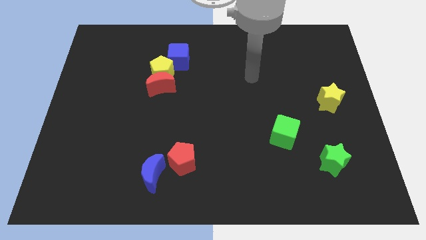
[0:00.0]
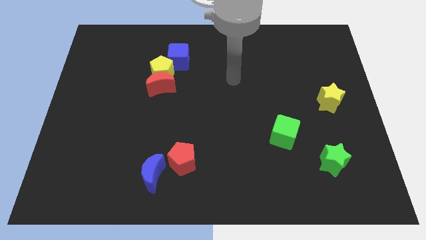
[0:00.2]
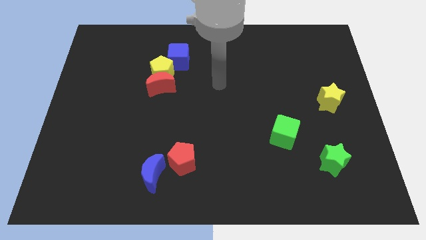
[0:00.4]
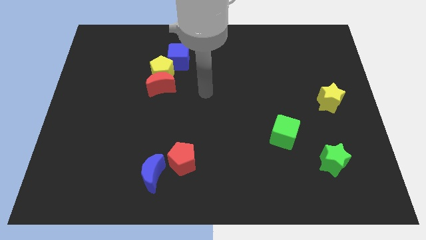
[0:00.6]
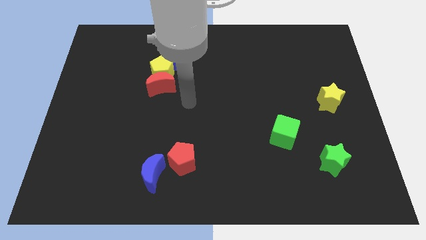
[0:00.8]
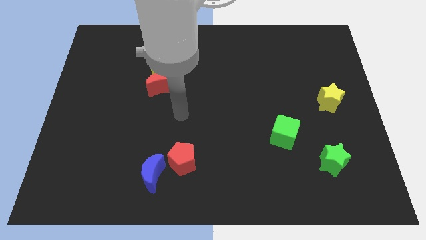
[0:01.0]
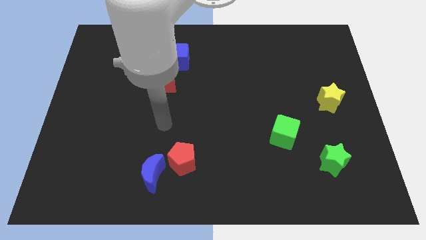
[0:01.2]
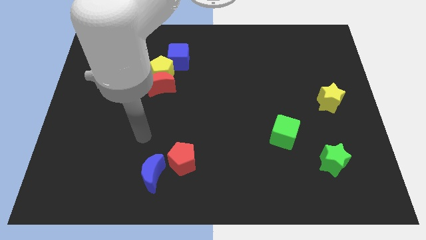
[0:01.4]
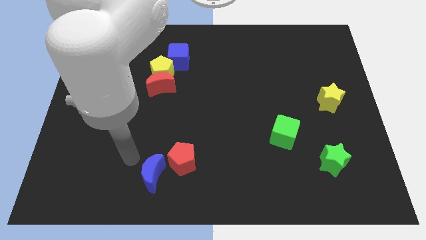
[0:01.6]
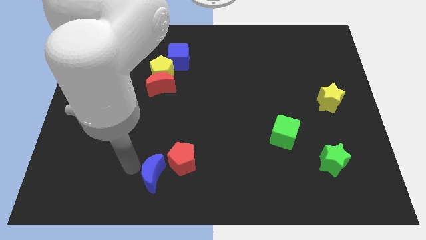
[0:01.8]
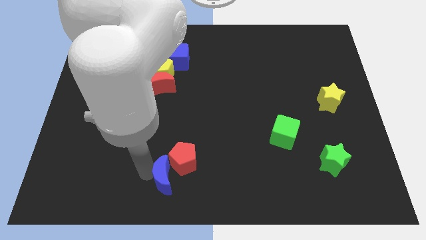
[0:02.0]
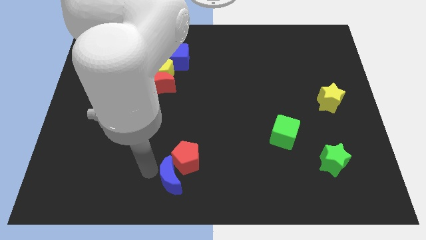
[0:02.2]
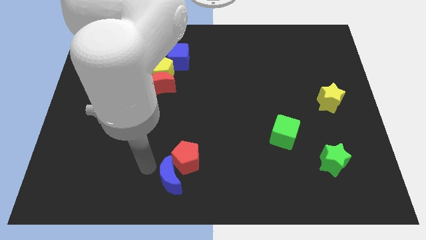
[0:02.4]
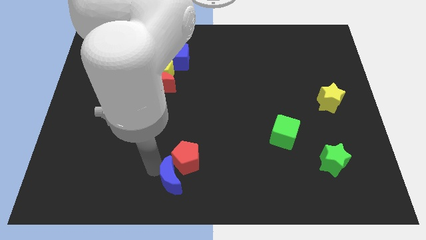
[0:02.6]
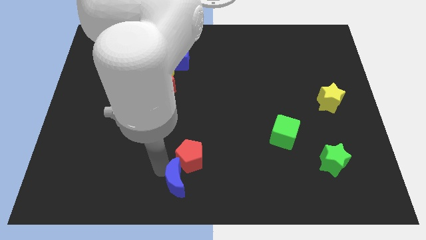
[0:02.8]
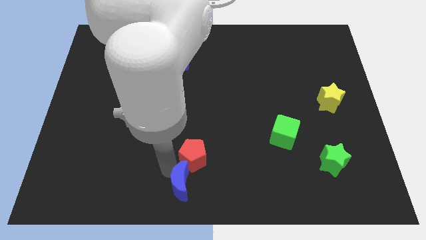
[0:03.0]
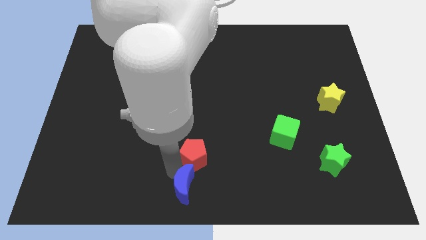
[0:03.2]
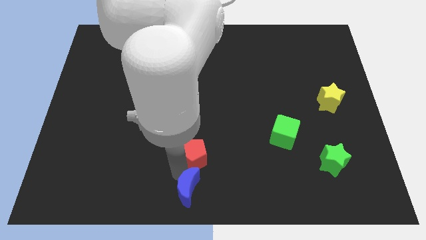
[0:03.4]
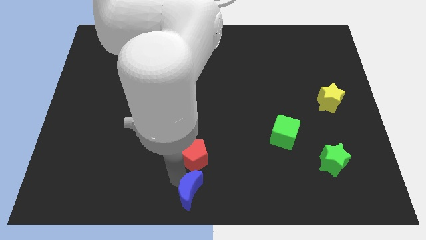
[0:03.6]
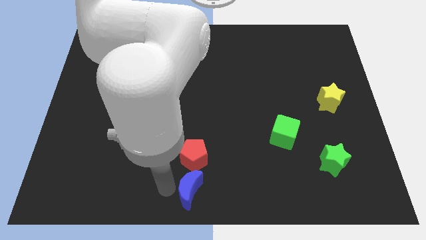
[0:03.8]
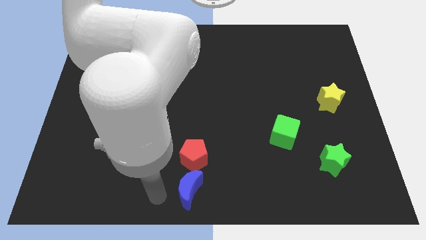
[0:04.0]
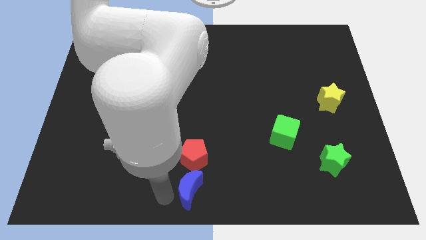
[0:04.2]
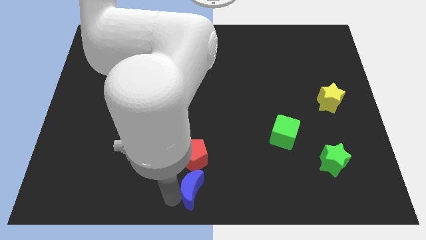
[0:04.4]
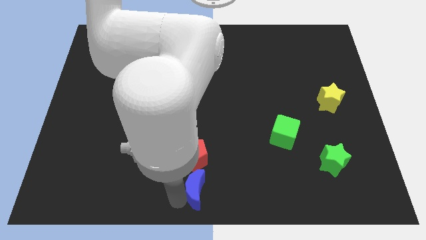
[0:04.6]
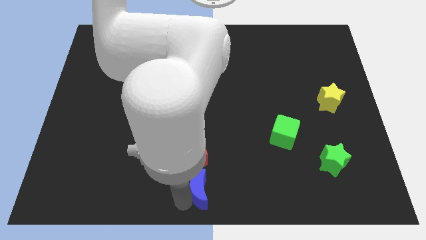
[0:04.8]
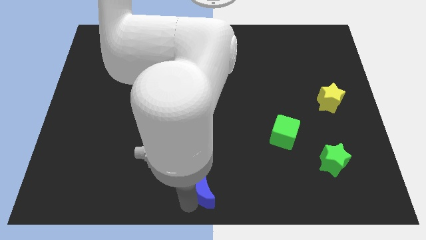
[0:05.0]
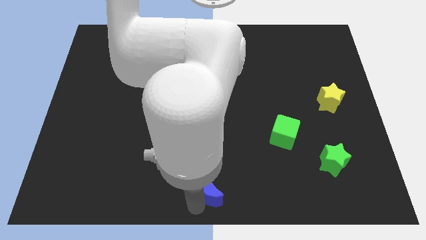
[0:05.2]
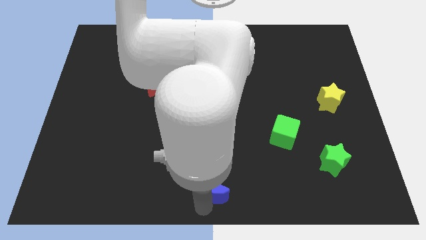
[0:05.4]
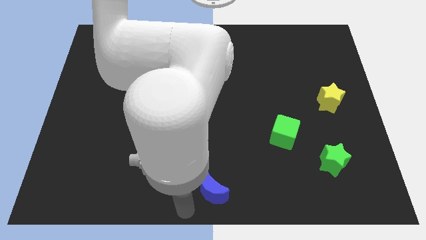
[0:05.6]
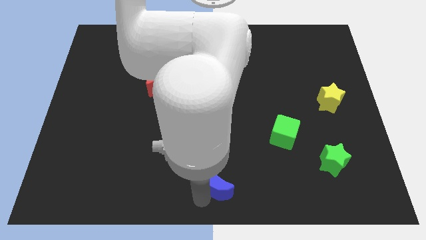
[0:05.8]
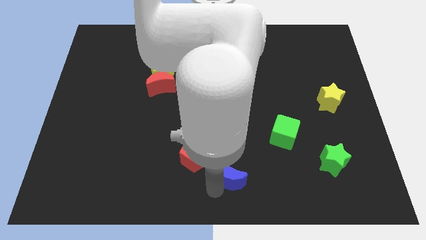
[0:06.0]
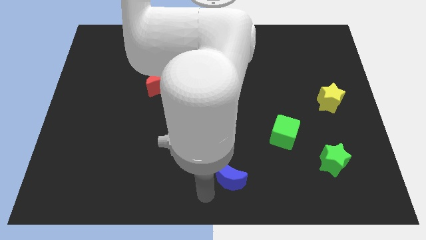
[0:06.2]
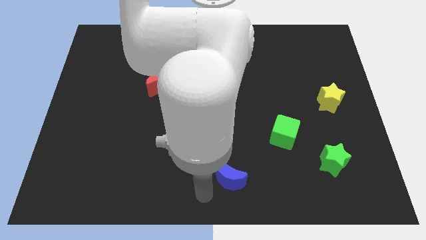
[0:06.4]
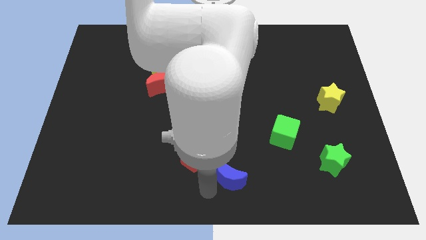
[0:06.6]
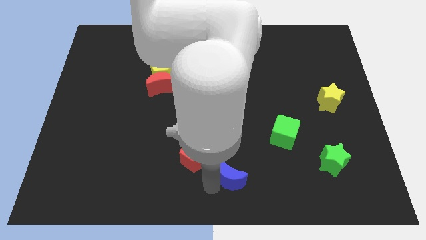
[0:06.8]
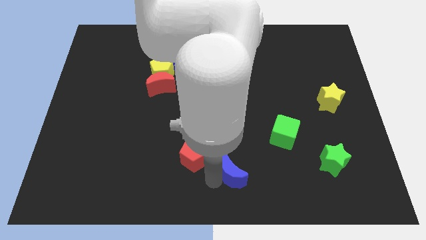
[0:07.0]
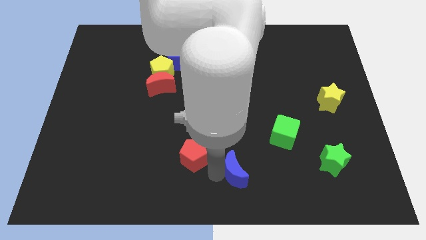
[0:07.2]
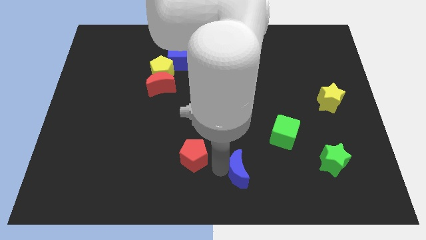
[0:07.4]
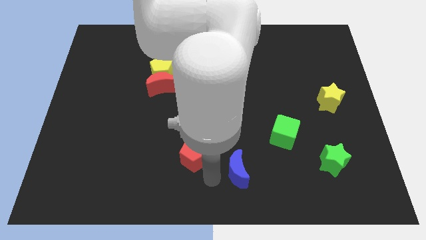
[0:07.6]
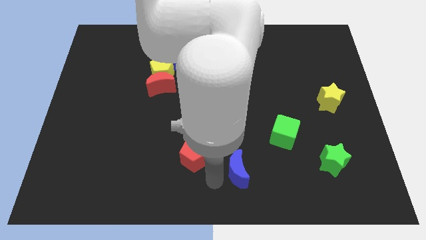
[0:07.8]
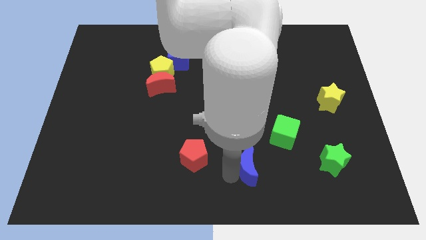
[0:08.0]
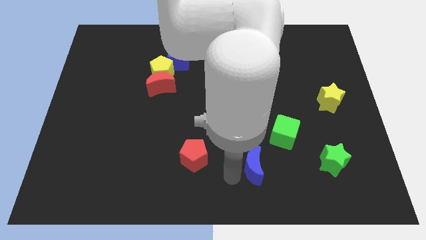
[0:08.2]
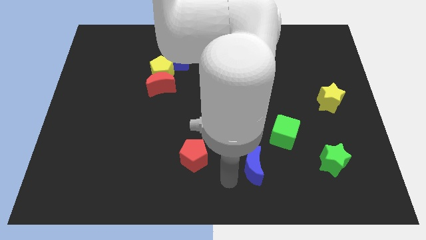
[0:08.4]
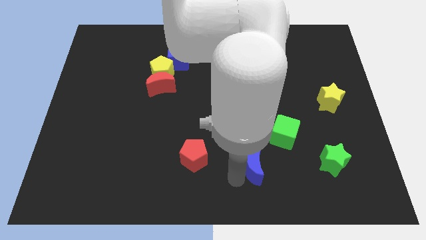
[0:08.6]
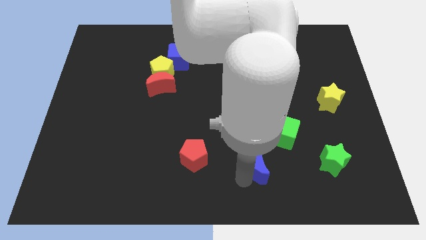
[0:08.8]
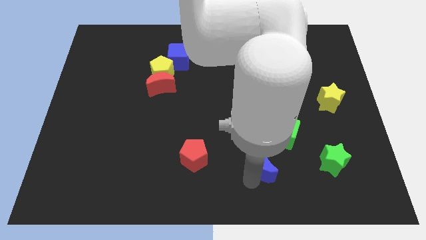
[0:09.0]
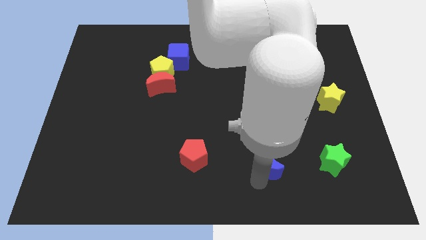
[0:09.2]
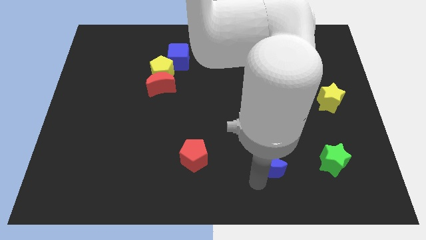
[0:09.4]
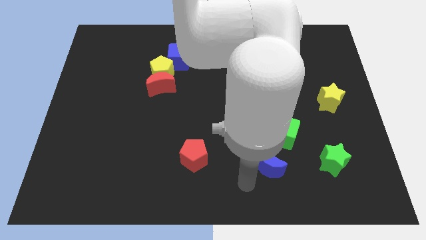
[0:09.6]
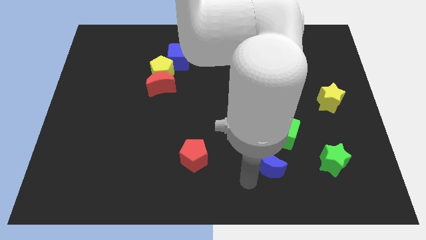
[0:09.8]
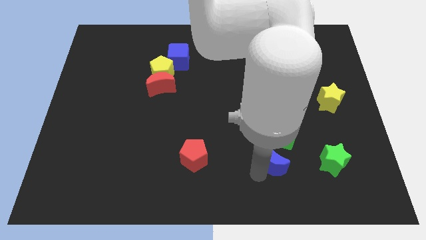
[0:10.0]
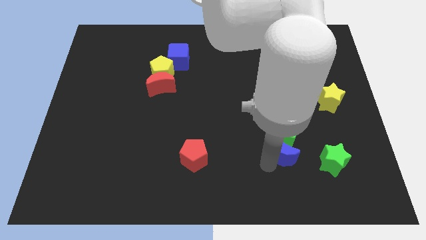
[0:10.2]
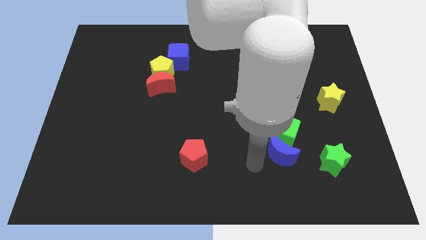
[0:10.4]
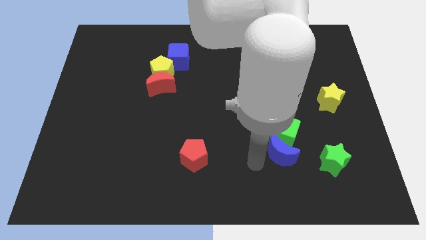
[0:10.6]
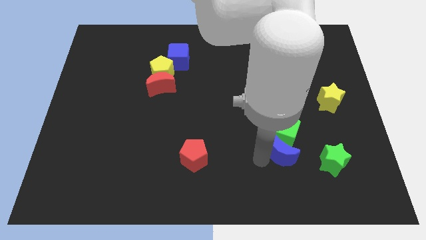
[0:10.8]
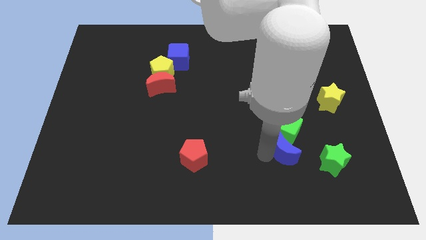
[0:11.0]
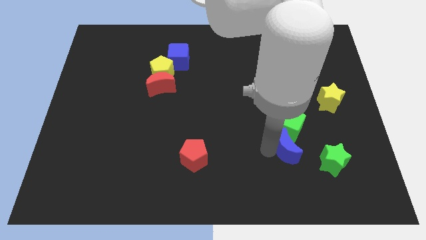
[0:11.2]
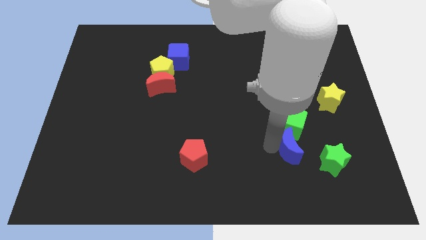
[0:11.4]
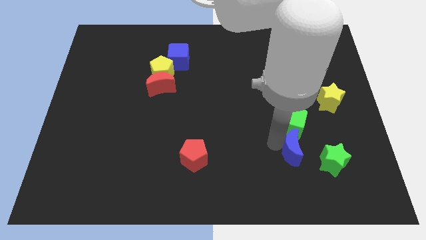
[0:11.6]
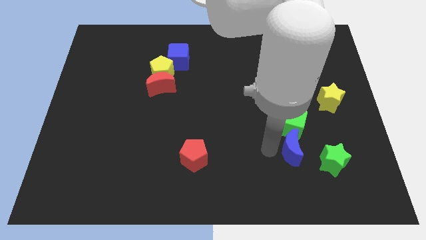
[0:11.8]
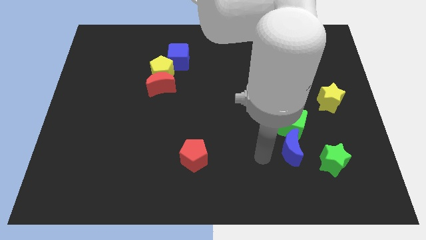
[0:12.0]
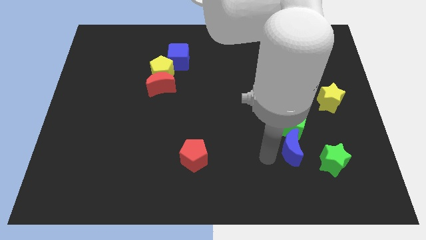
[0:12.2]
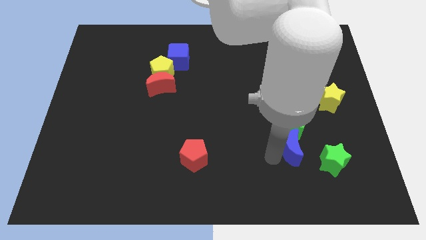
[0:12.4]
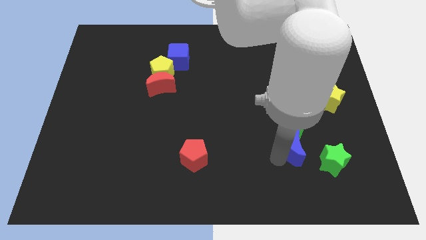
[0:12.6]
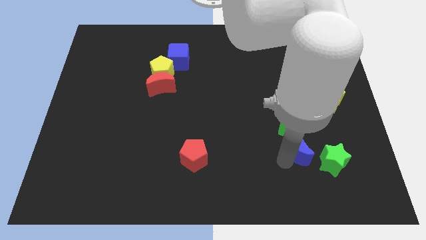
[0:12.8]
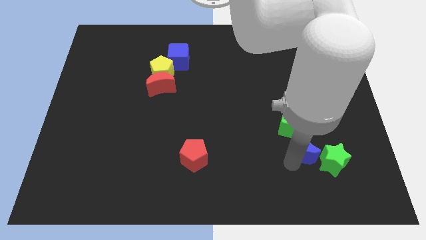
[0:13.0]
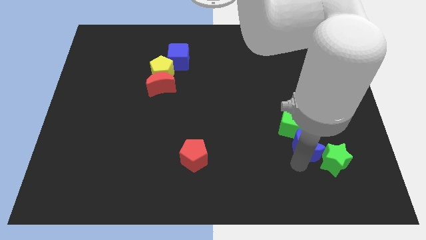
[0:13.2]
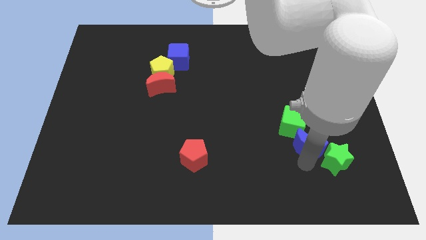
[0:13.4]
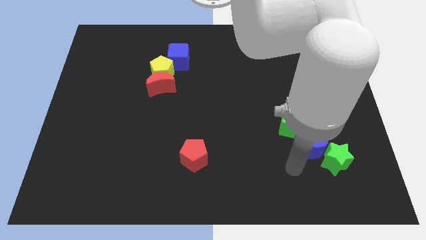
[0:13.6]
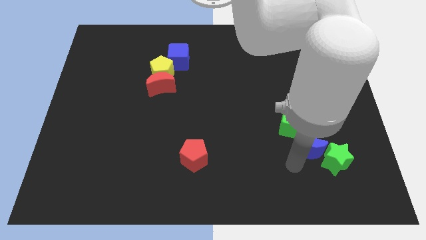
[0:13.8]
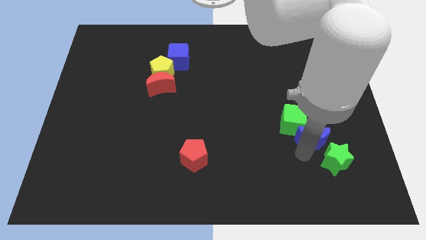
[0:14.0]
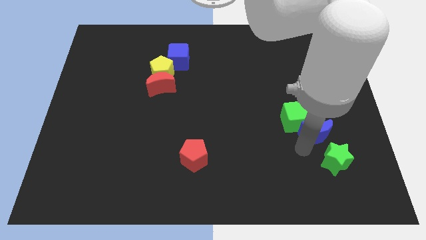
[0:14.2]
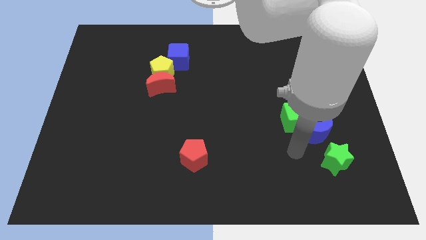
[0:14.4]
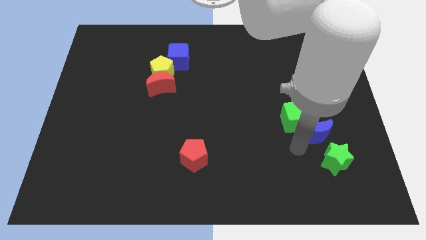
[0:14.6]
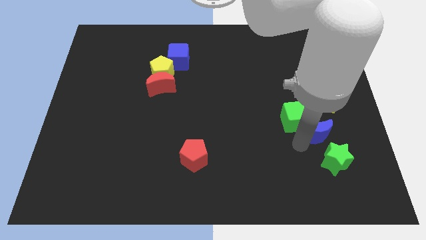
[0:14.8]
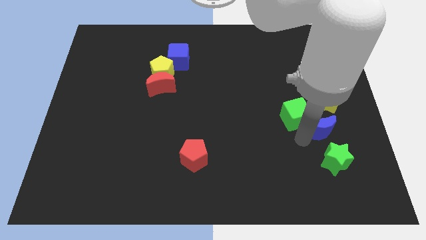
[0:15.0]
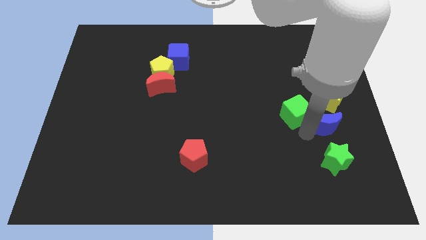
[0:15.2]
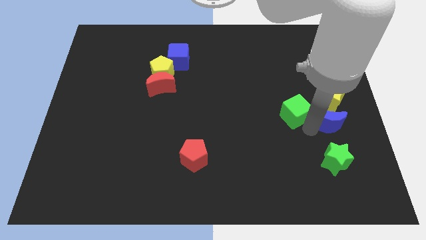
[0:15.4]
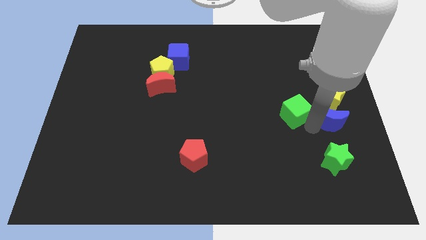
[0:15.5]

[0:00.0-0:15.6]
push the blue moon to the right side

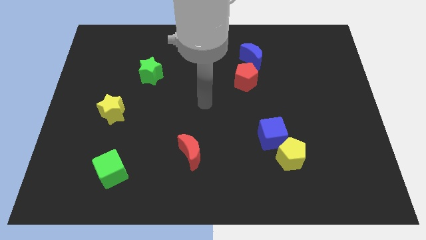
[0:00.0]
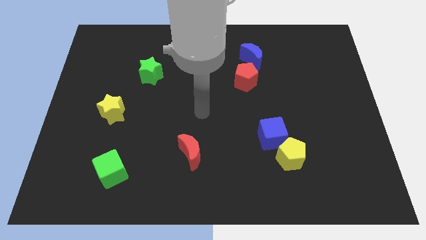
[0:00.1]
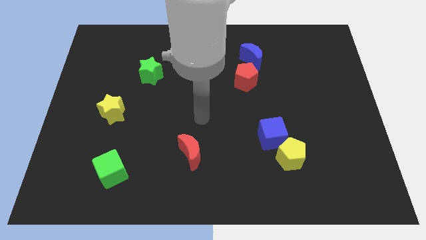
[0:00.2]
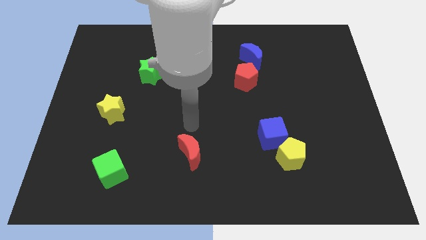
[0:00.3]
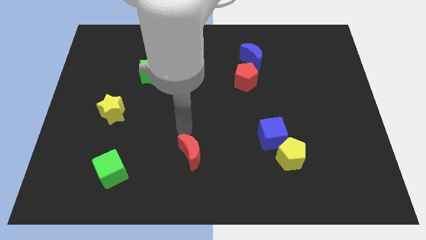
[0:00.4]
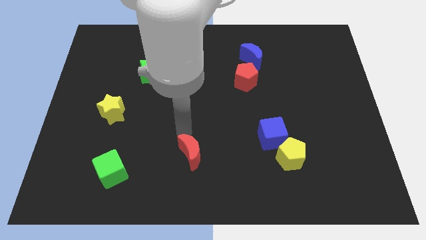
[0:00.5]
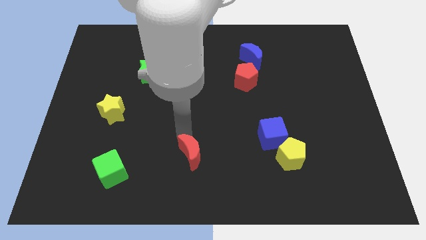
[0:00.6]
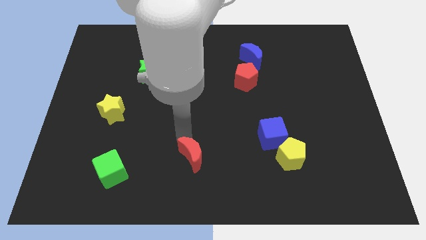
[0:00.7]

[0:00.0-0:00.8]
put the red moon to the bottom
